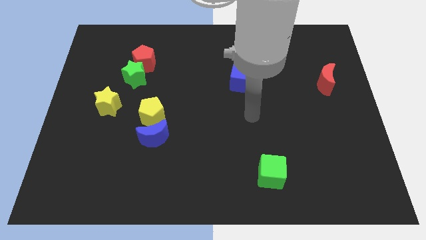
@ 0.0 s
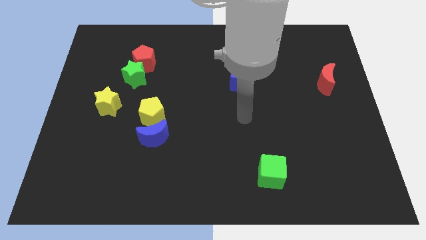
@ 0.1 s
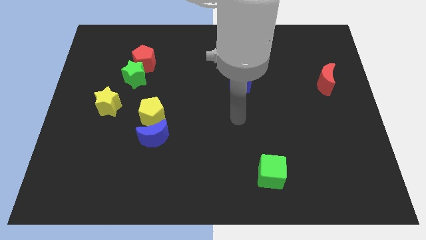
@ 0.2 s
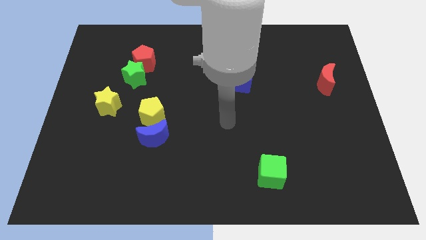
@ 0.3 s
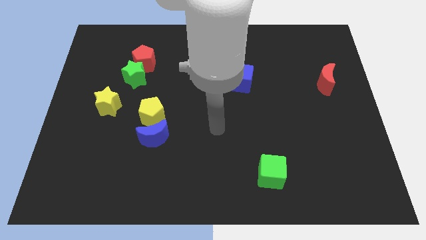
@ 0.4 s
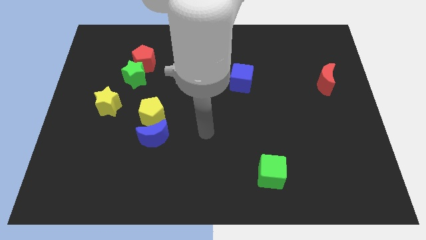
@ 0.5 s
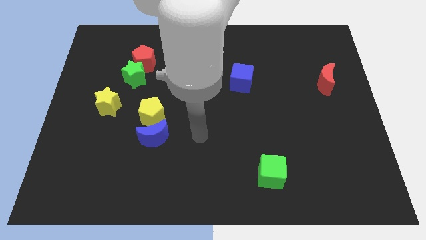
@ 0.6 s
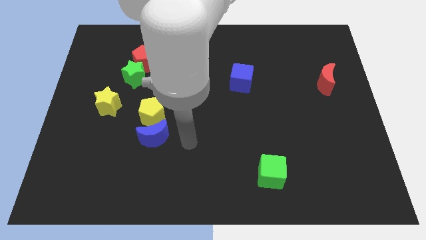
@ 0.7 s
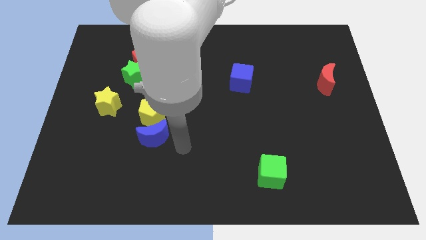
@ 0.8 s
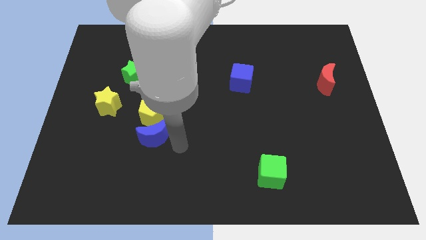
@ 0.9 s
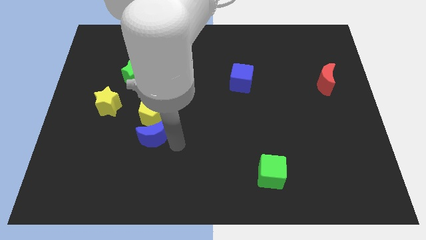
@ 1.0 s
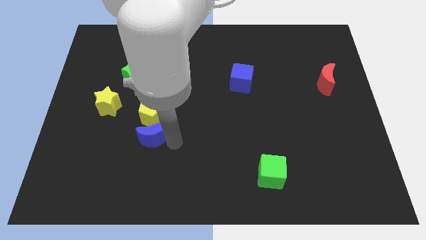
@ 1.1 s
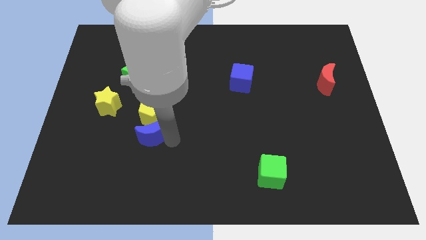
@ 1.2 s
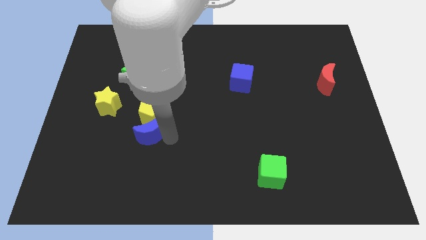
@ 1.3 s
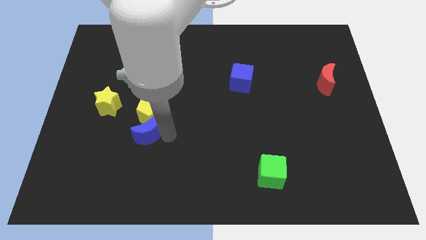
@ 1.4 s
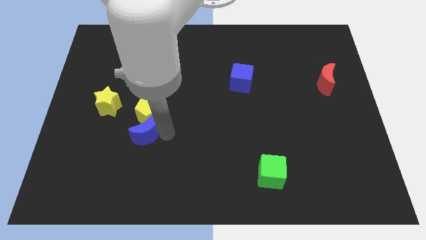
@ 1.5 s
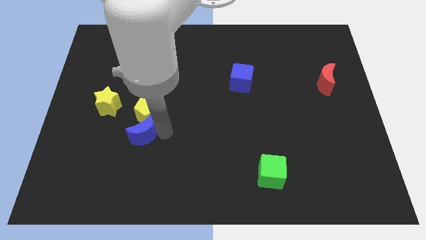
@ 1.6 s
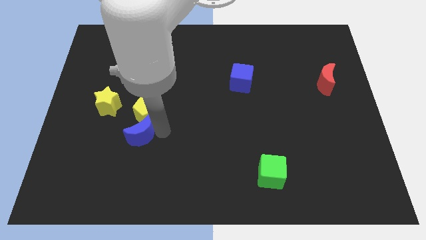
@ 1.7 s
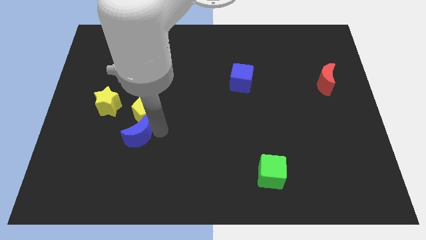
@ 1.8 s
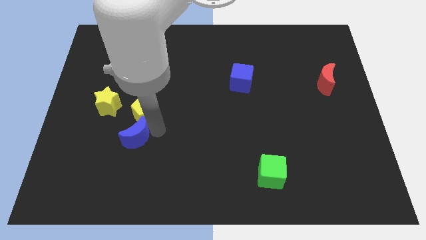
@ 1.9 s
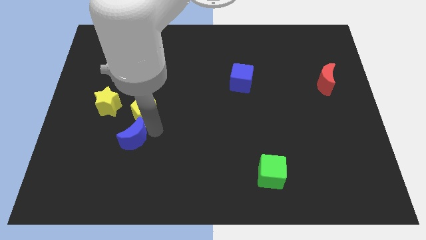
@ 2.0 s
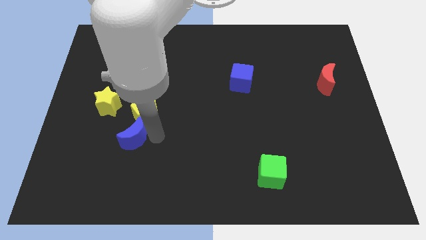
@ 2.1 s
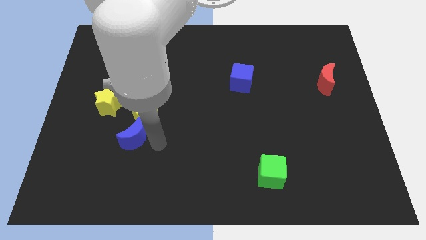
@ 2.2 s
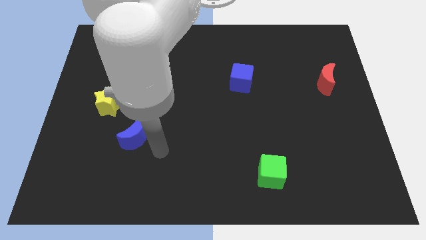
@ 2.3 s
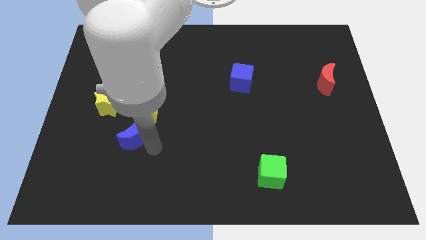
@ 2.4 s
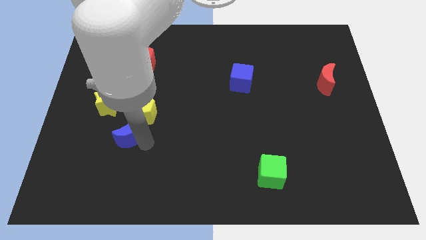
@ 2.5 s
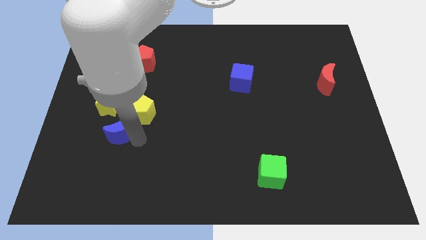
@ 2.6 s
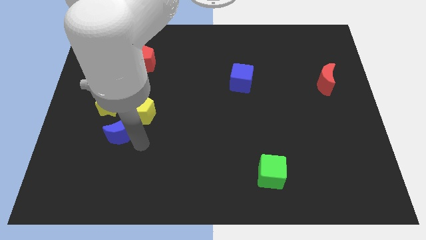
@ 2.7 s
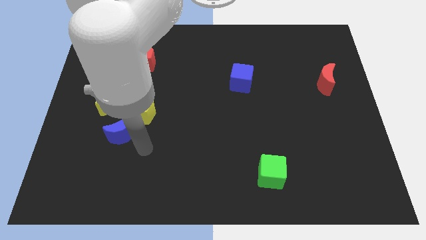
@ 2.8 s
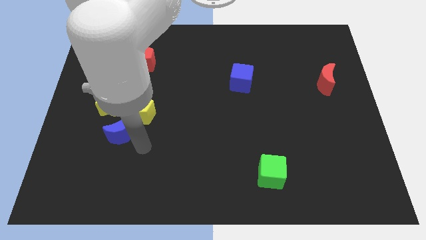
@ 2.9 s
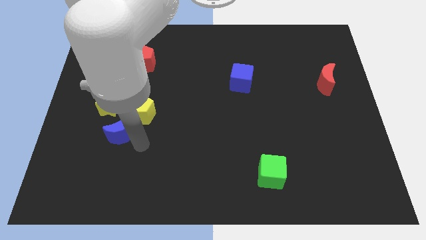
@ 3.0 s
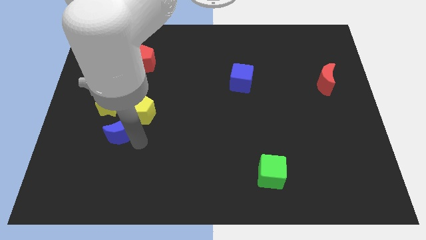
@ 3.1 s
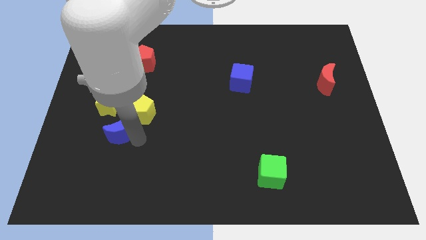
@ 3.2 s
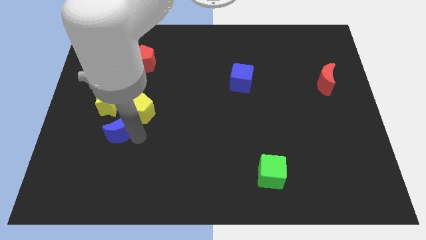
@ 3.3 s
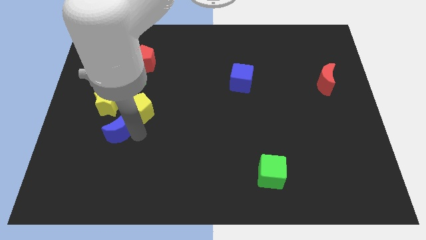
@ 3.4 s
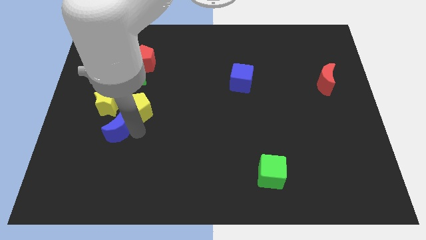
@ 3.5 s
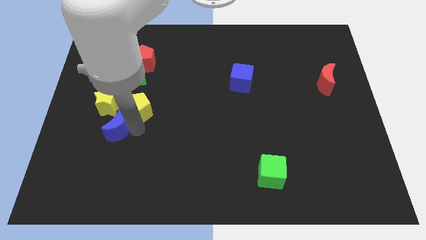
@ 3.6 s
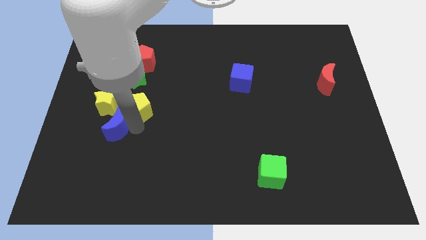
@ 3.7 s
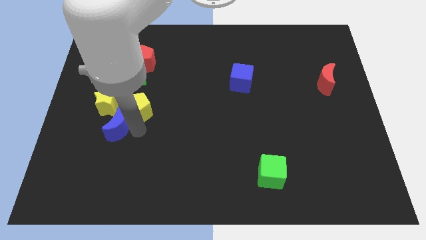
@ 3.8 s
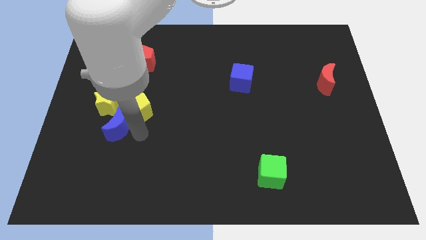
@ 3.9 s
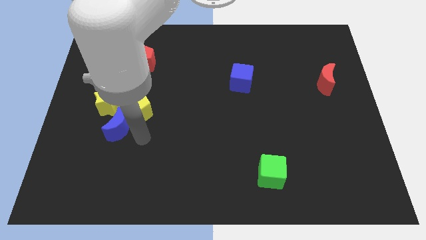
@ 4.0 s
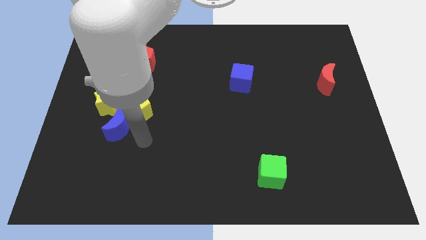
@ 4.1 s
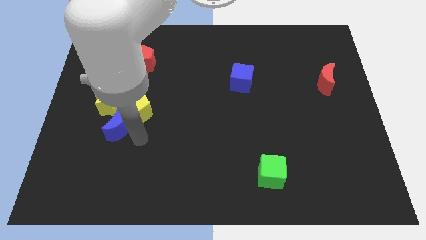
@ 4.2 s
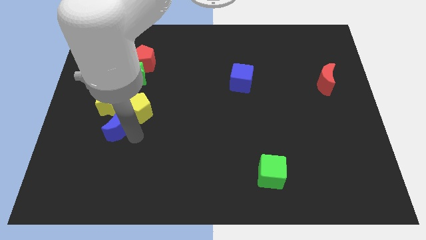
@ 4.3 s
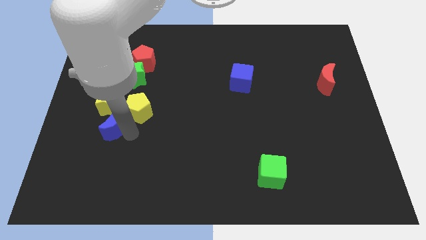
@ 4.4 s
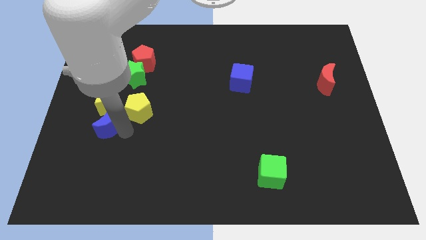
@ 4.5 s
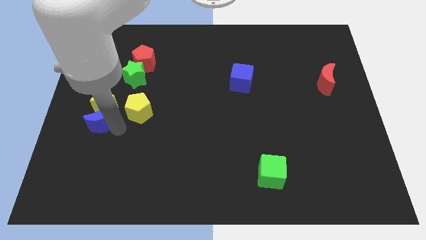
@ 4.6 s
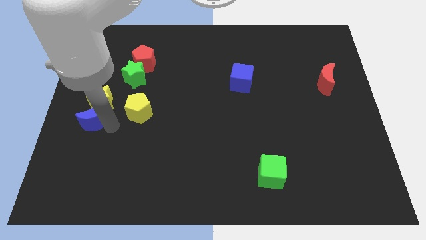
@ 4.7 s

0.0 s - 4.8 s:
slide the blue moon to the left side

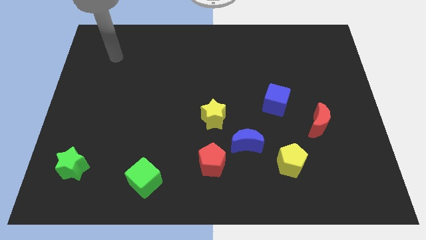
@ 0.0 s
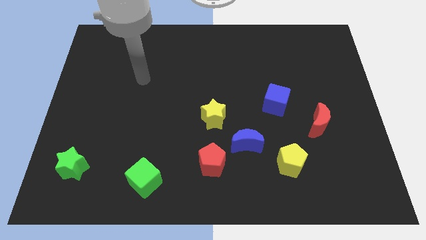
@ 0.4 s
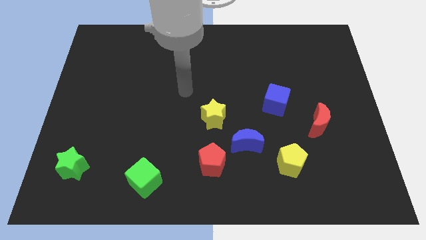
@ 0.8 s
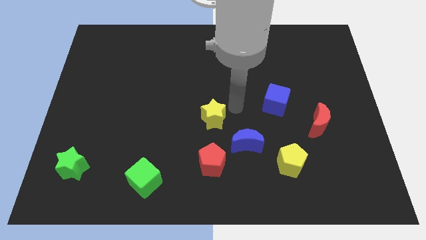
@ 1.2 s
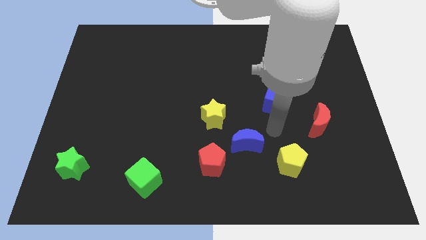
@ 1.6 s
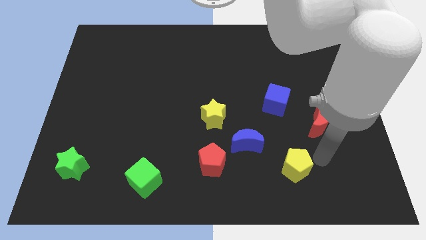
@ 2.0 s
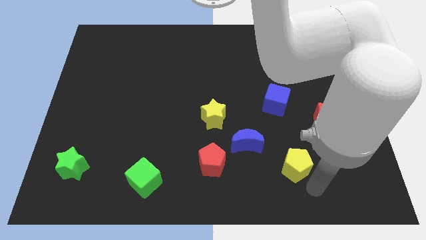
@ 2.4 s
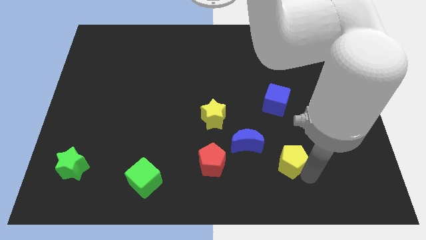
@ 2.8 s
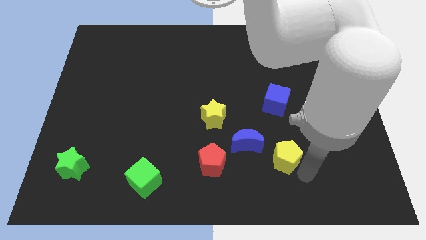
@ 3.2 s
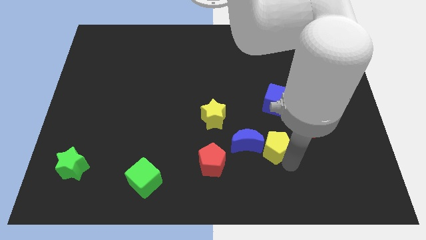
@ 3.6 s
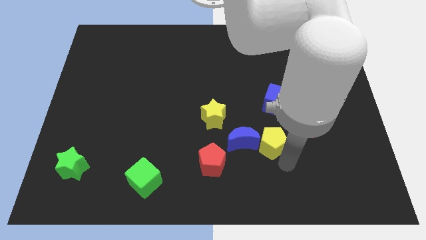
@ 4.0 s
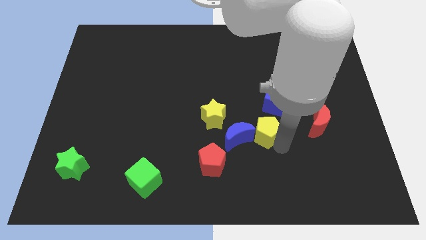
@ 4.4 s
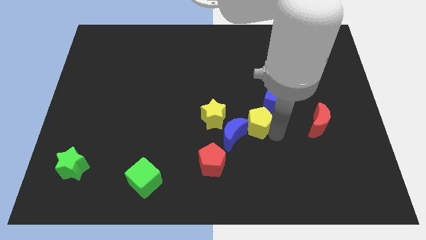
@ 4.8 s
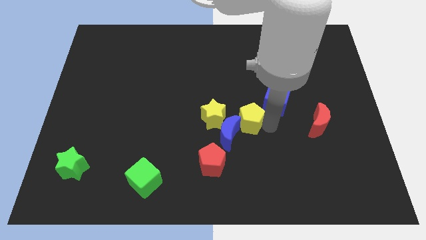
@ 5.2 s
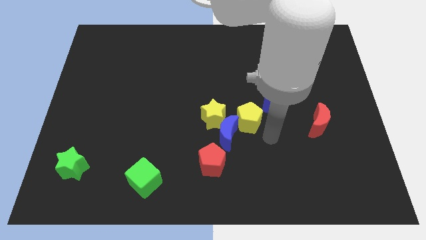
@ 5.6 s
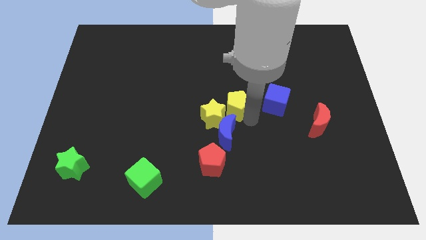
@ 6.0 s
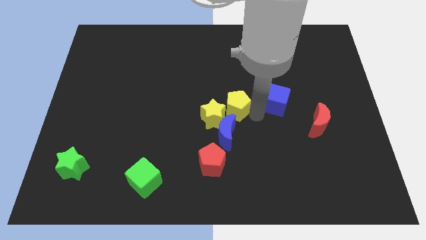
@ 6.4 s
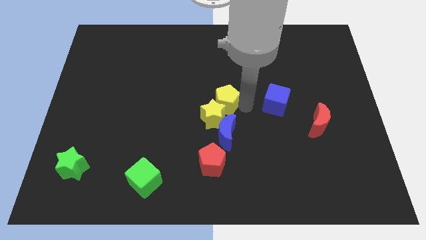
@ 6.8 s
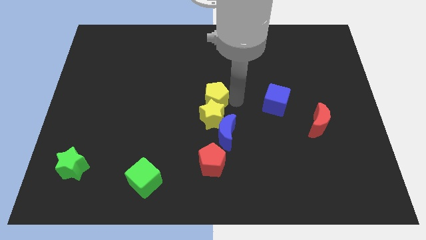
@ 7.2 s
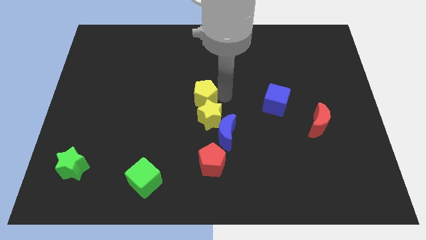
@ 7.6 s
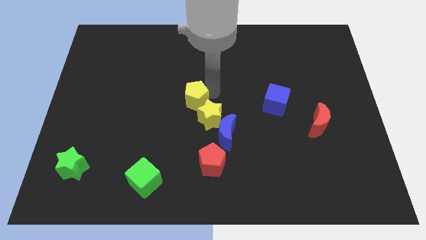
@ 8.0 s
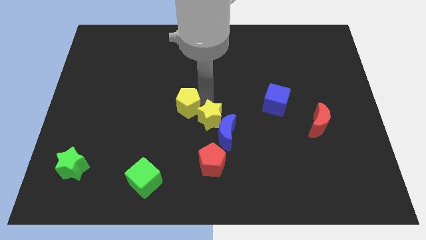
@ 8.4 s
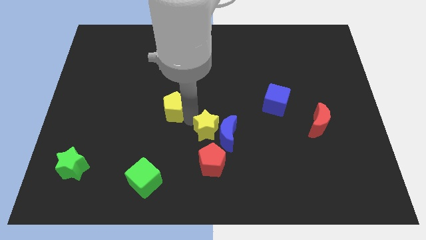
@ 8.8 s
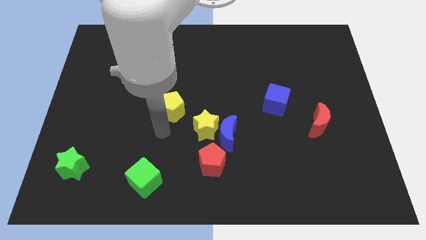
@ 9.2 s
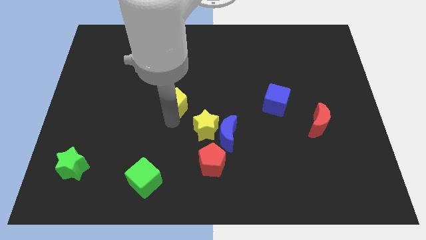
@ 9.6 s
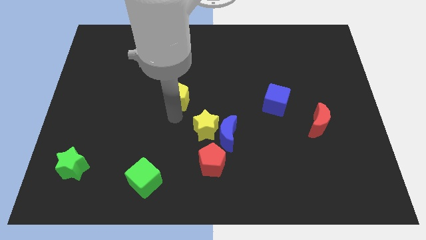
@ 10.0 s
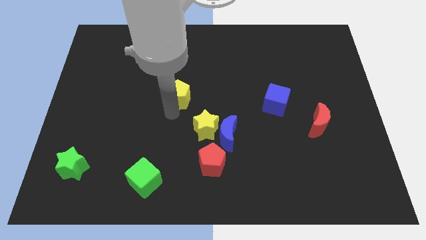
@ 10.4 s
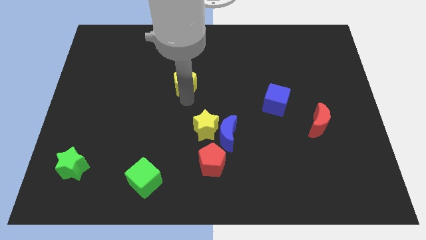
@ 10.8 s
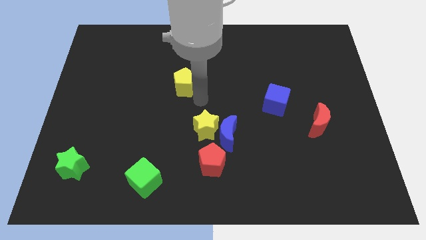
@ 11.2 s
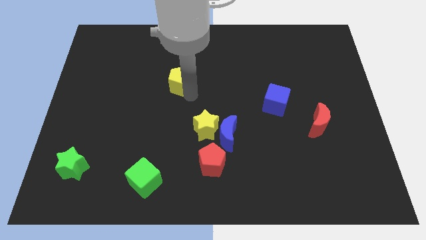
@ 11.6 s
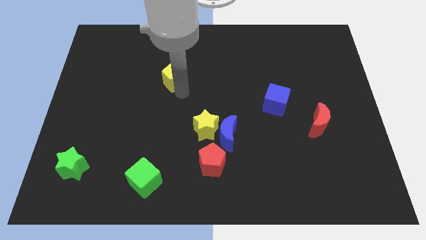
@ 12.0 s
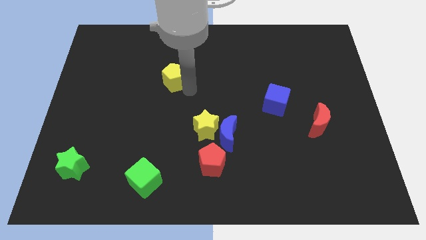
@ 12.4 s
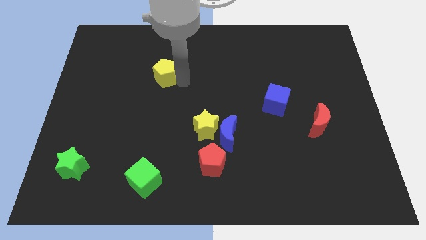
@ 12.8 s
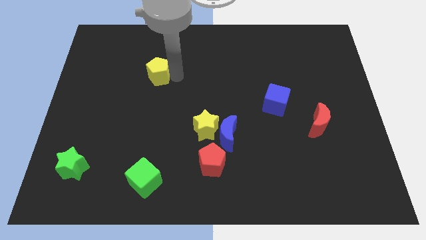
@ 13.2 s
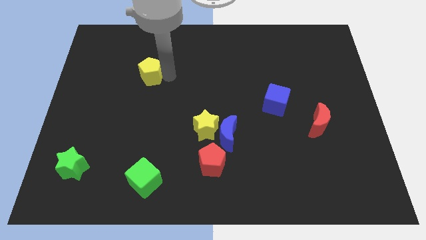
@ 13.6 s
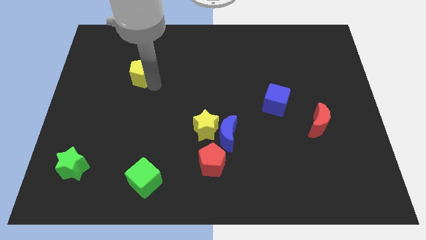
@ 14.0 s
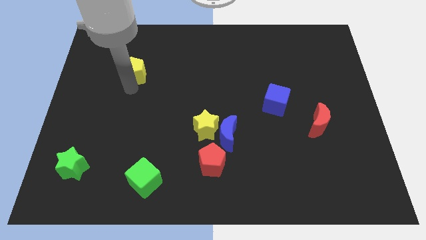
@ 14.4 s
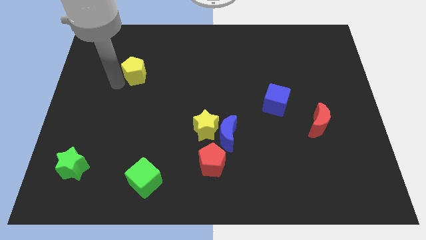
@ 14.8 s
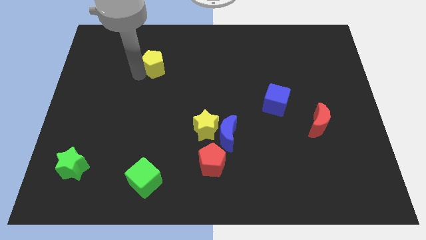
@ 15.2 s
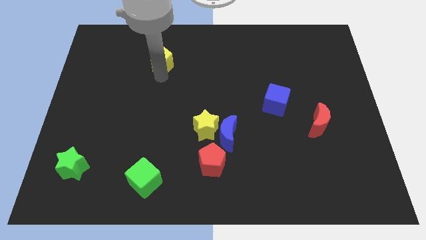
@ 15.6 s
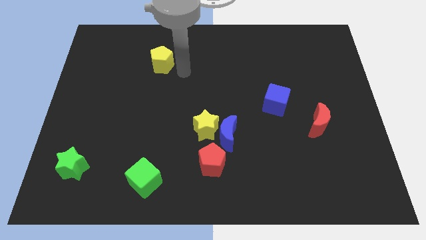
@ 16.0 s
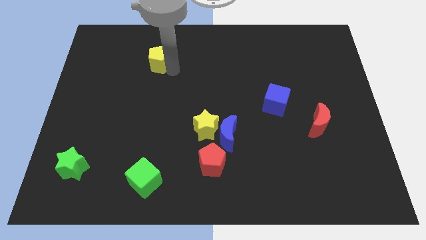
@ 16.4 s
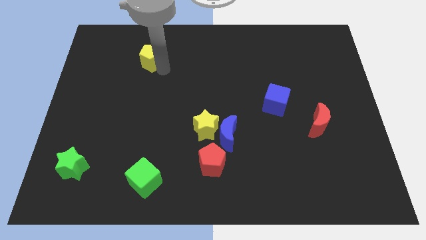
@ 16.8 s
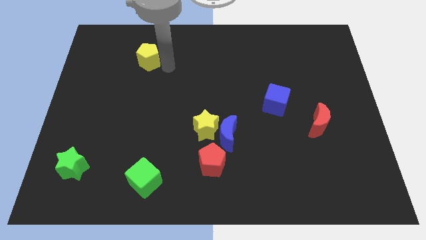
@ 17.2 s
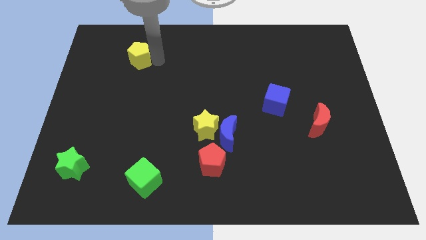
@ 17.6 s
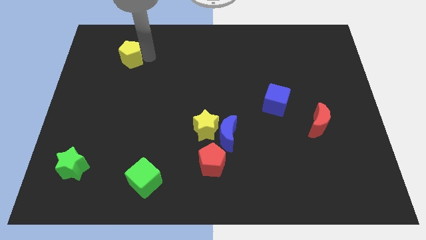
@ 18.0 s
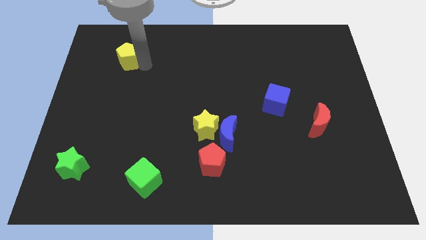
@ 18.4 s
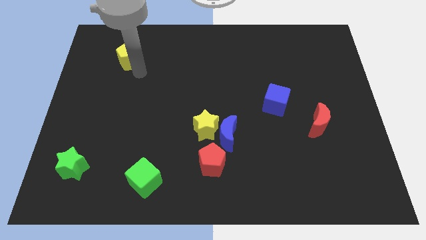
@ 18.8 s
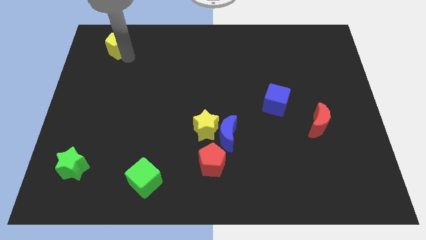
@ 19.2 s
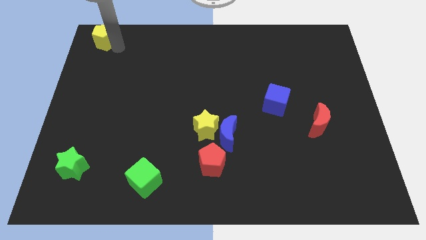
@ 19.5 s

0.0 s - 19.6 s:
slide the yellow pentagon to the upper left corner
